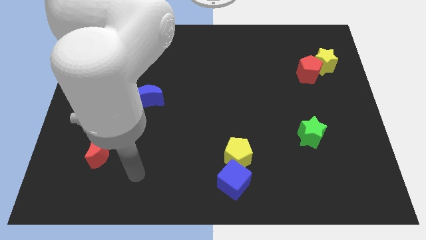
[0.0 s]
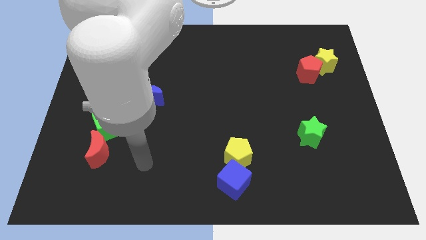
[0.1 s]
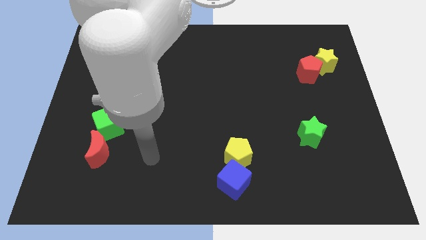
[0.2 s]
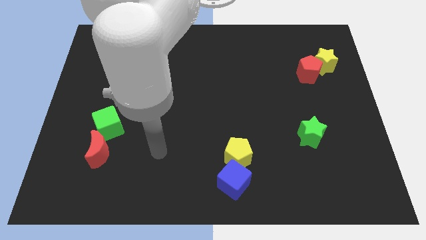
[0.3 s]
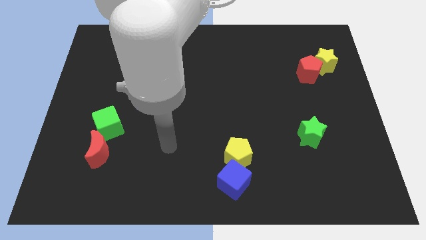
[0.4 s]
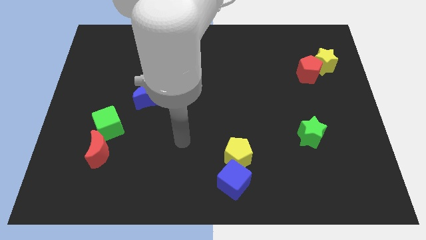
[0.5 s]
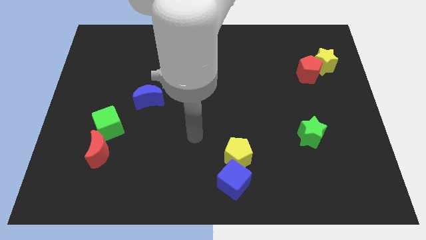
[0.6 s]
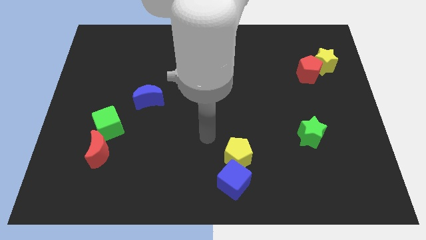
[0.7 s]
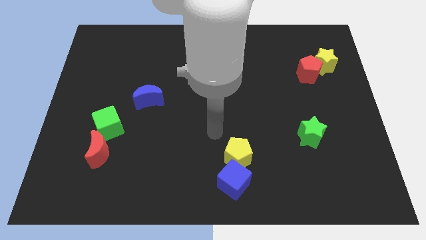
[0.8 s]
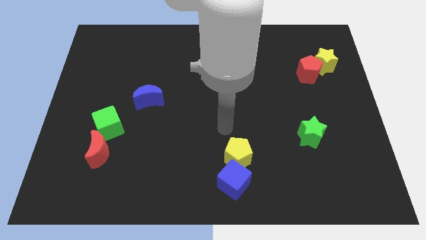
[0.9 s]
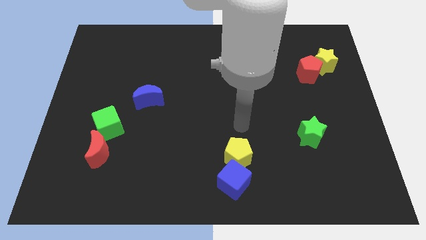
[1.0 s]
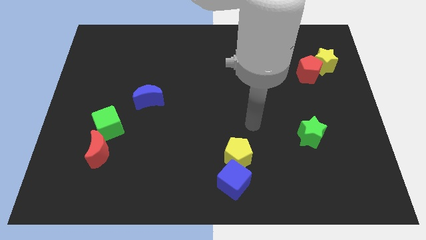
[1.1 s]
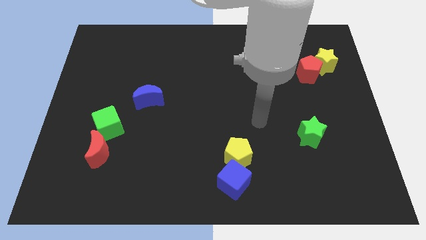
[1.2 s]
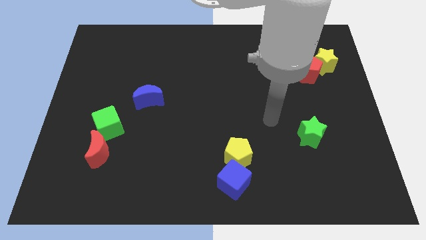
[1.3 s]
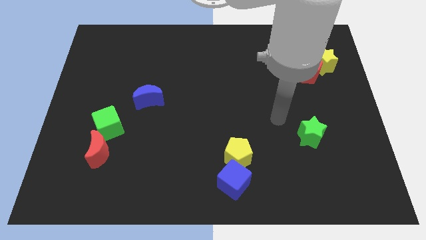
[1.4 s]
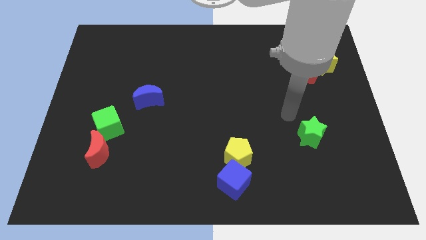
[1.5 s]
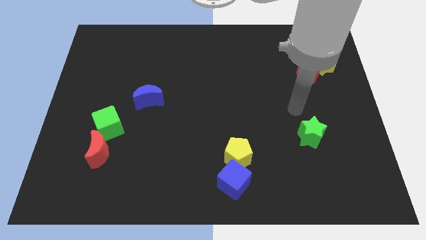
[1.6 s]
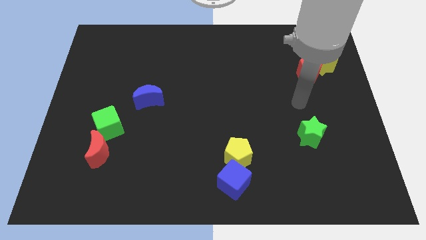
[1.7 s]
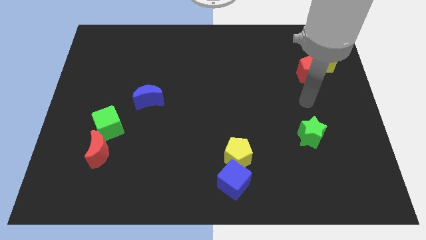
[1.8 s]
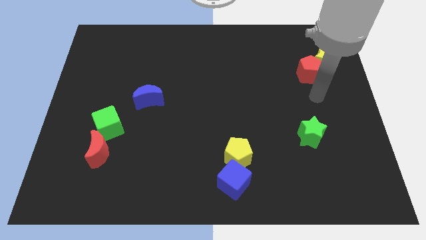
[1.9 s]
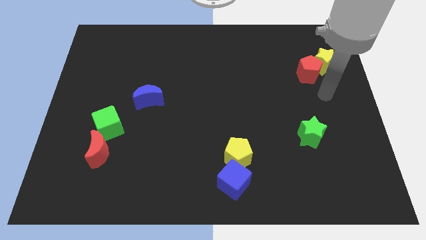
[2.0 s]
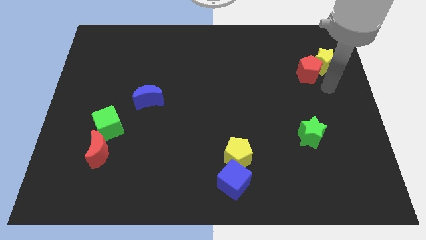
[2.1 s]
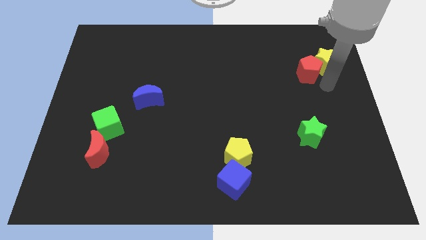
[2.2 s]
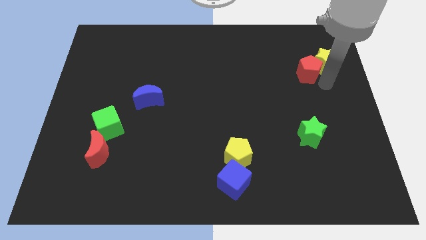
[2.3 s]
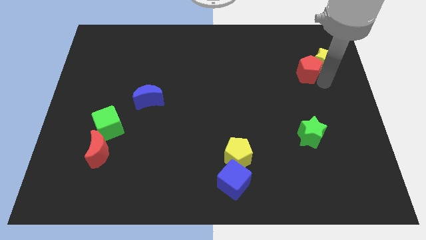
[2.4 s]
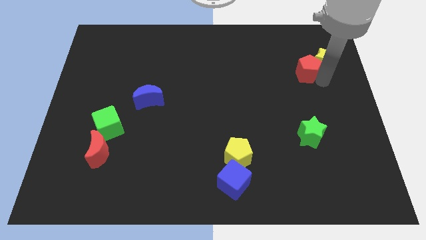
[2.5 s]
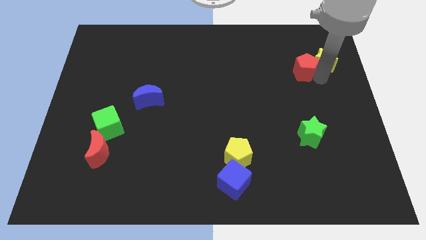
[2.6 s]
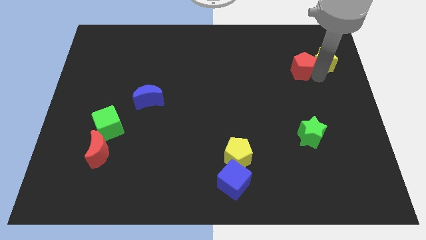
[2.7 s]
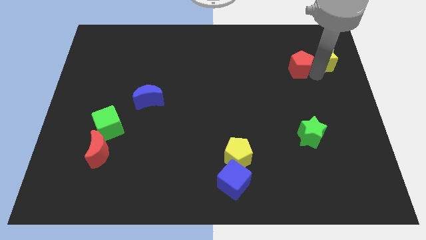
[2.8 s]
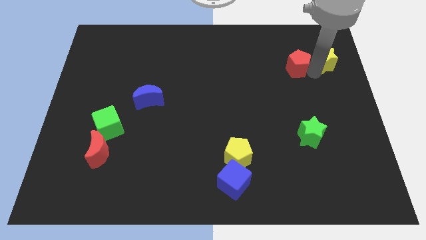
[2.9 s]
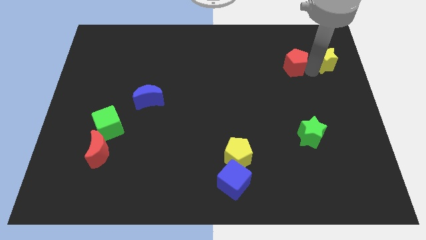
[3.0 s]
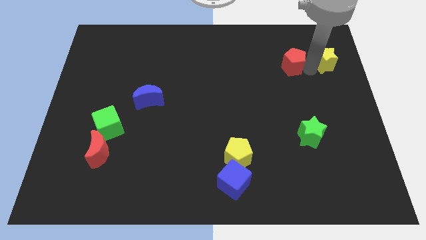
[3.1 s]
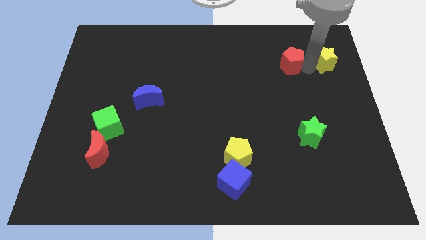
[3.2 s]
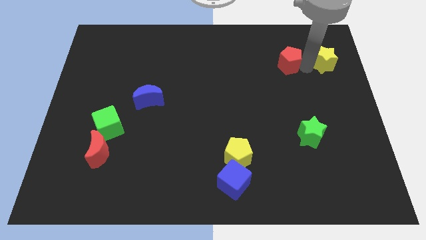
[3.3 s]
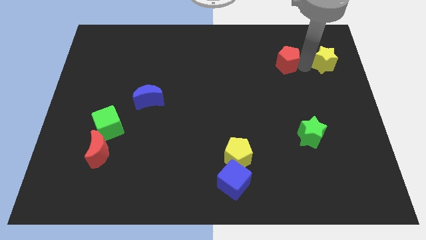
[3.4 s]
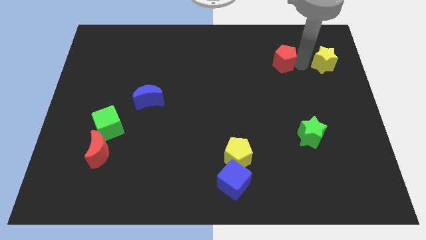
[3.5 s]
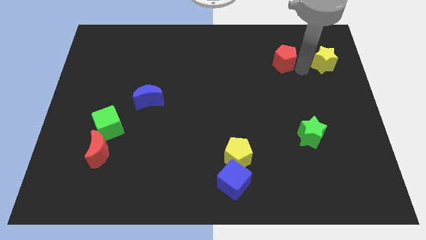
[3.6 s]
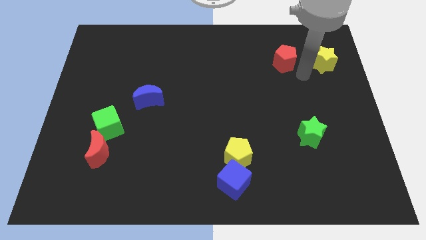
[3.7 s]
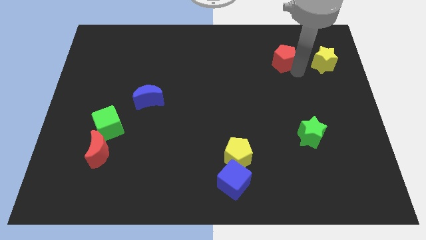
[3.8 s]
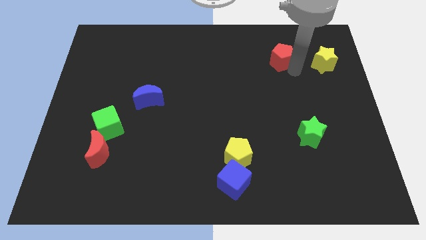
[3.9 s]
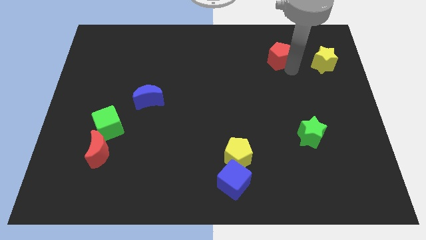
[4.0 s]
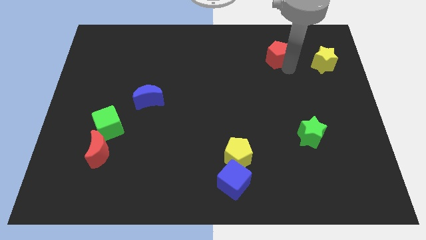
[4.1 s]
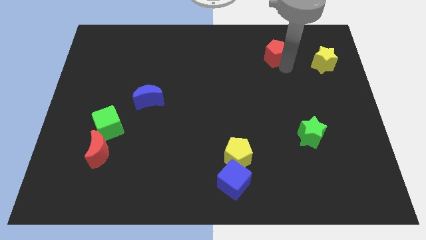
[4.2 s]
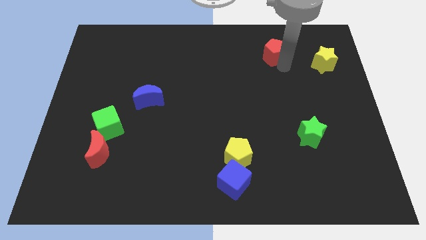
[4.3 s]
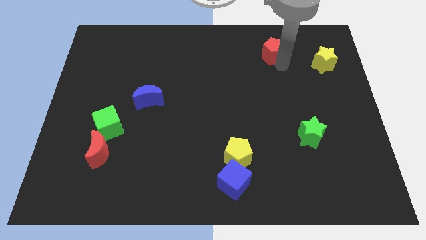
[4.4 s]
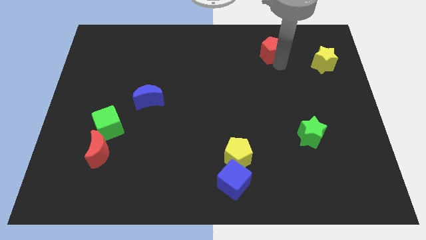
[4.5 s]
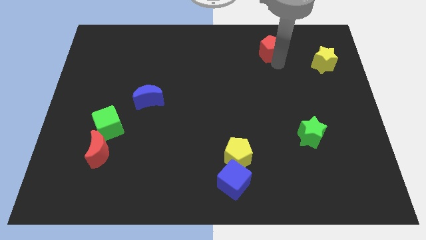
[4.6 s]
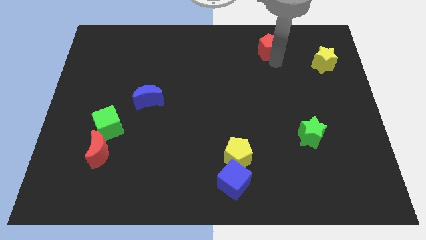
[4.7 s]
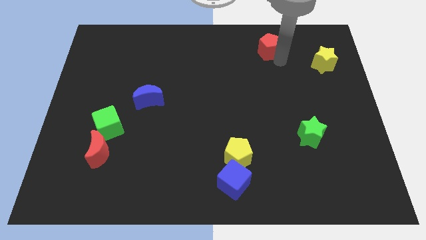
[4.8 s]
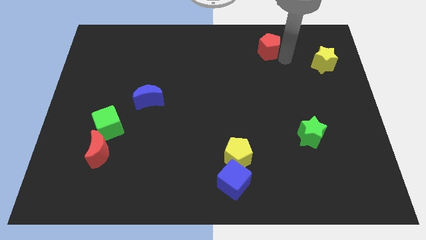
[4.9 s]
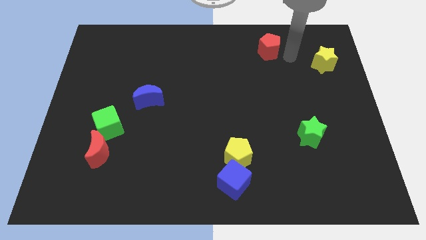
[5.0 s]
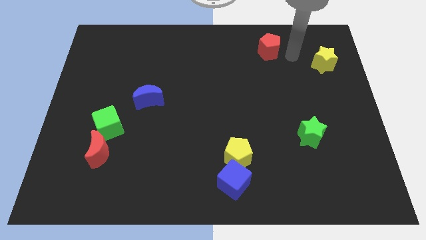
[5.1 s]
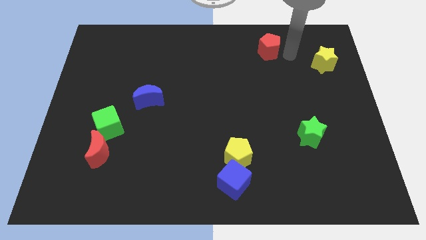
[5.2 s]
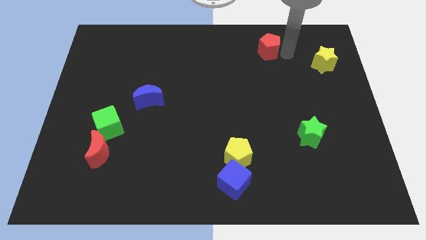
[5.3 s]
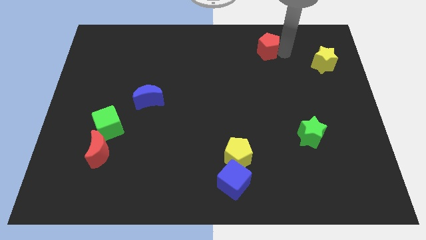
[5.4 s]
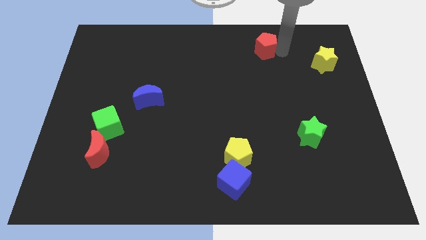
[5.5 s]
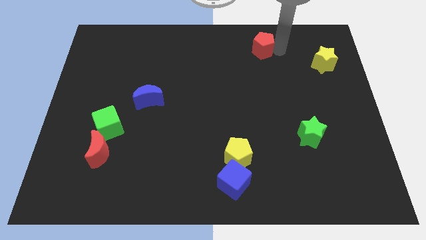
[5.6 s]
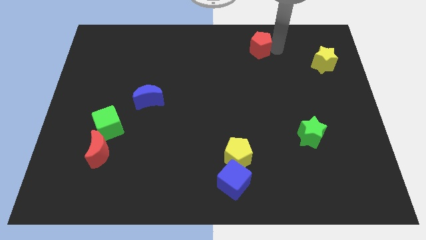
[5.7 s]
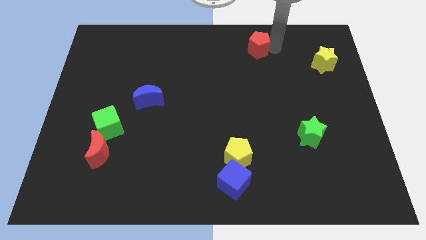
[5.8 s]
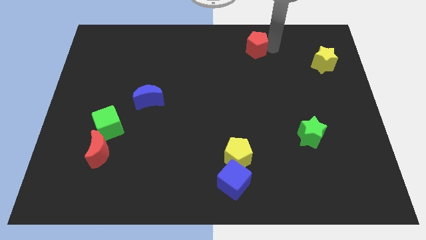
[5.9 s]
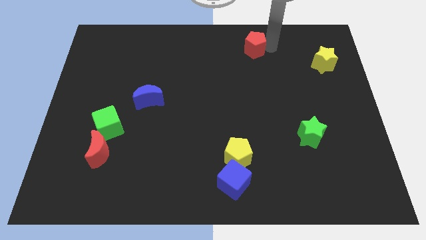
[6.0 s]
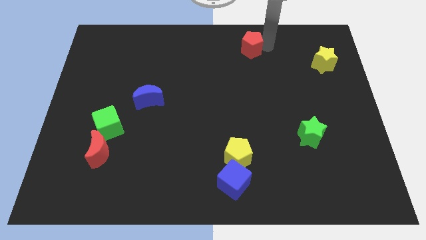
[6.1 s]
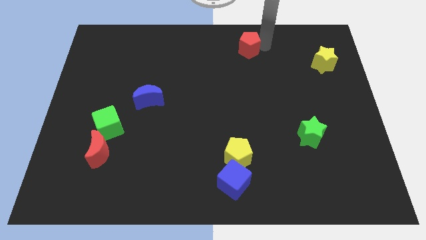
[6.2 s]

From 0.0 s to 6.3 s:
slide the red pentagon to the towards your base
